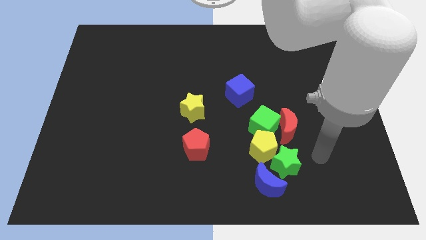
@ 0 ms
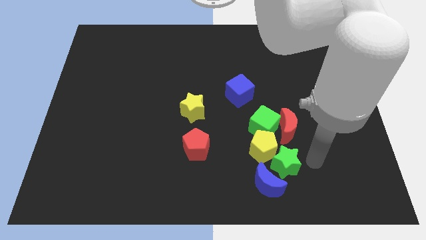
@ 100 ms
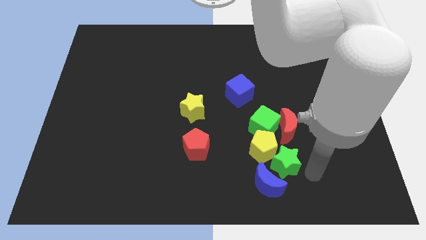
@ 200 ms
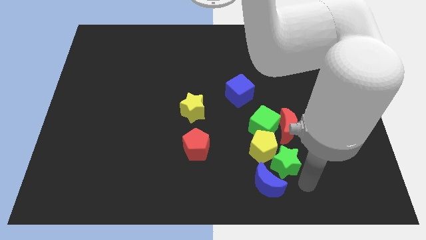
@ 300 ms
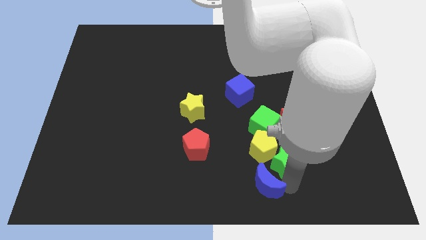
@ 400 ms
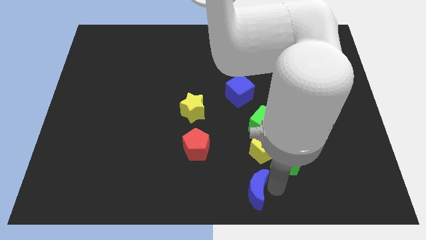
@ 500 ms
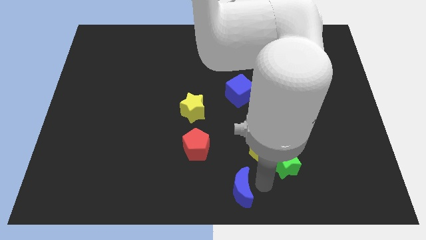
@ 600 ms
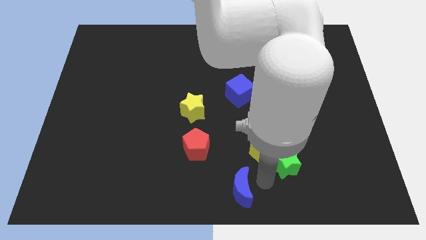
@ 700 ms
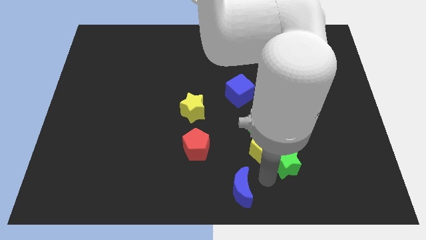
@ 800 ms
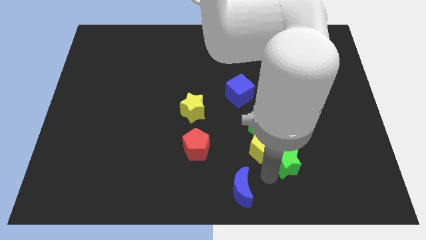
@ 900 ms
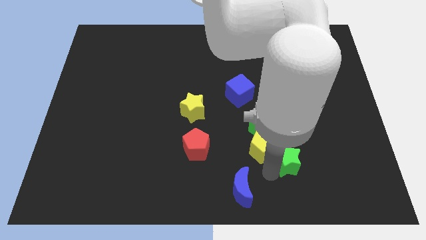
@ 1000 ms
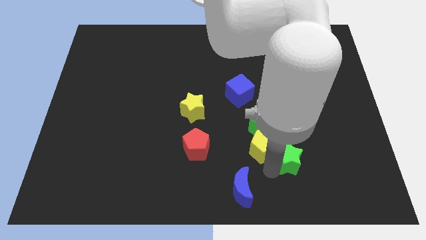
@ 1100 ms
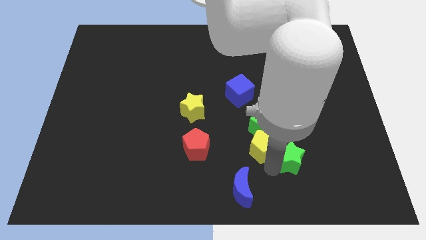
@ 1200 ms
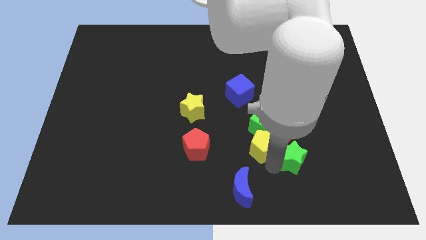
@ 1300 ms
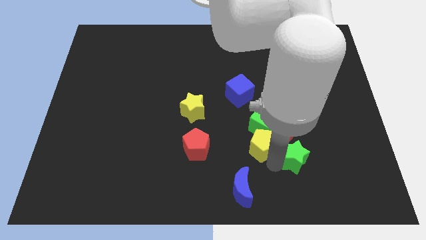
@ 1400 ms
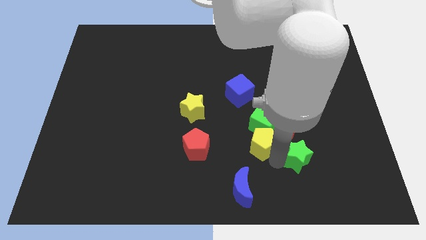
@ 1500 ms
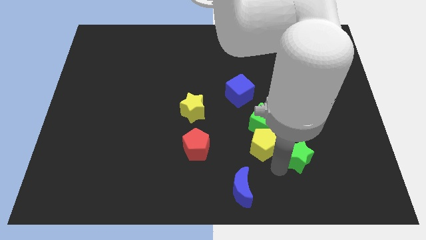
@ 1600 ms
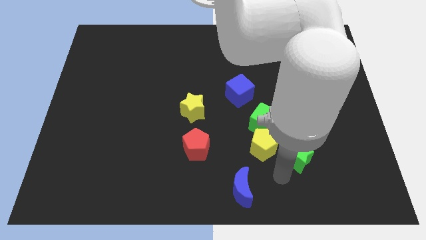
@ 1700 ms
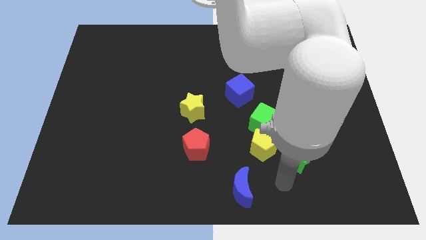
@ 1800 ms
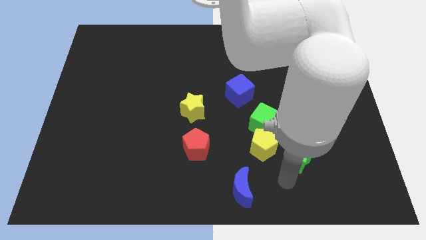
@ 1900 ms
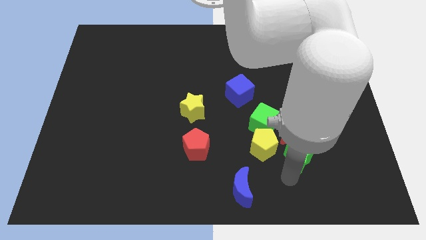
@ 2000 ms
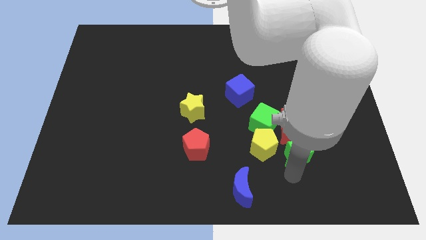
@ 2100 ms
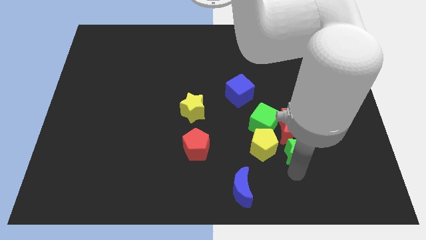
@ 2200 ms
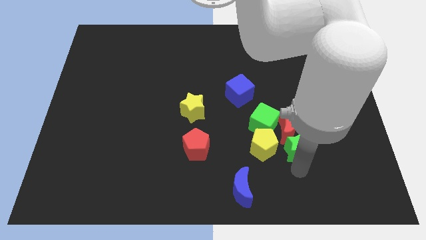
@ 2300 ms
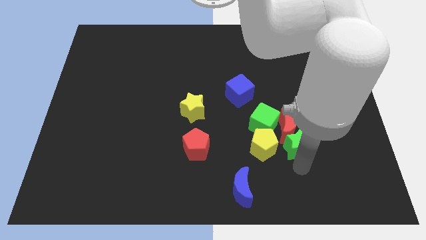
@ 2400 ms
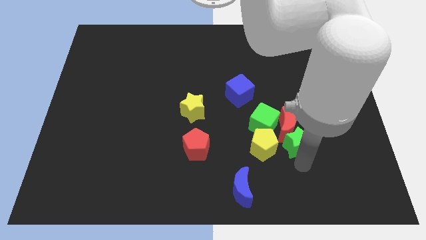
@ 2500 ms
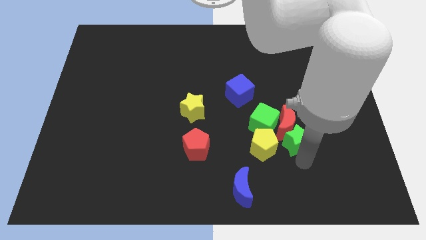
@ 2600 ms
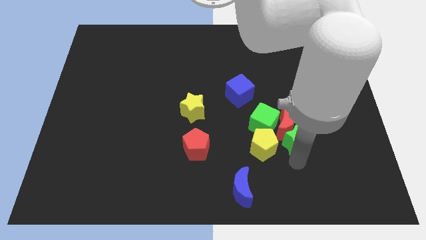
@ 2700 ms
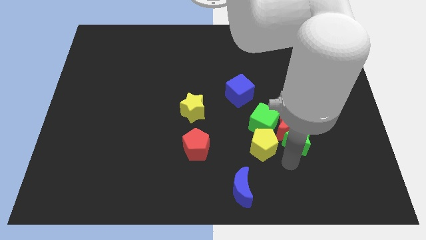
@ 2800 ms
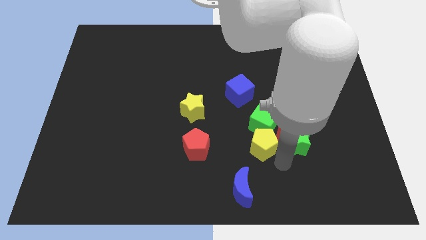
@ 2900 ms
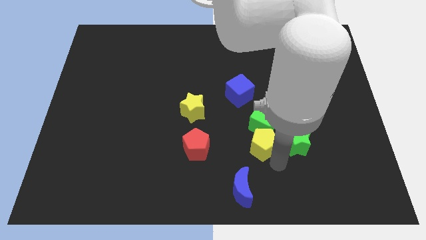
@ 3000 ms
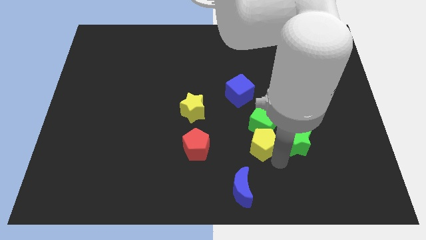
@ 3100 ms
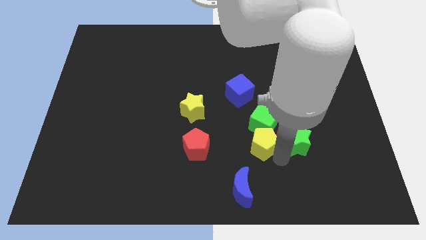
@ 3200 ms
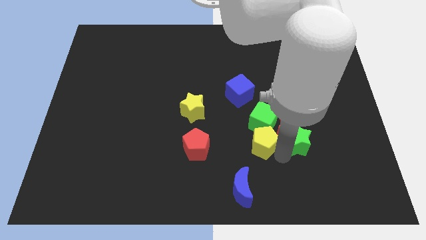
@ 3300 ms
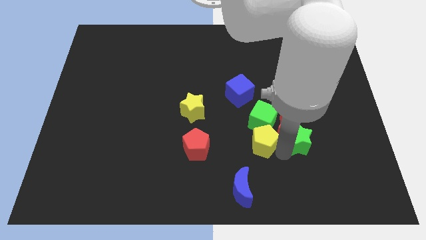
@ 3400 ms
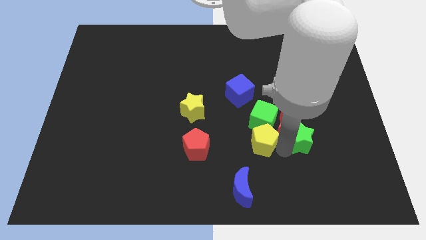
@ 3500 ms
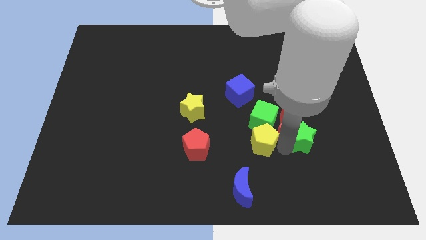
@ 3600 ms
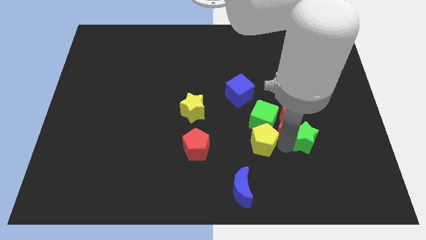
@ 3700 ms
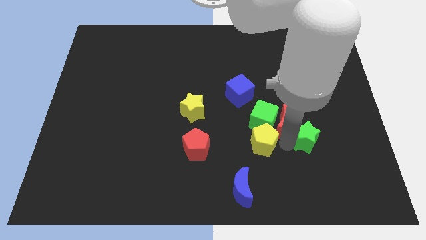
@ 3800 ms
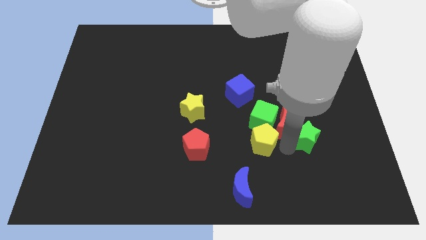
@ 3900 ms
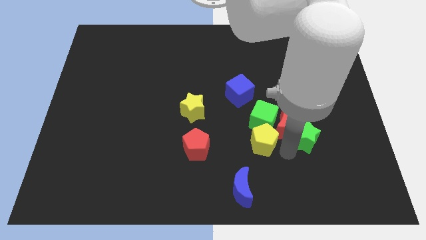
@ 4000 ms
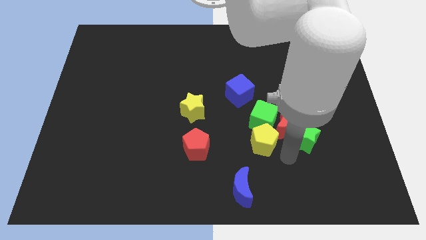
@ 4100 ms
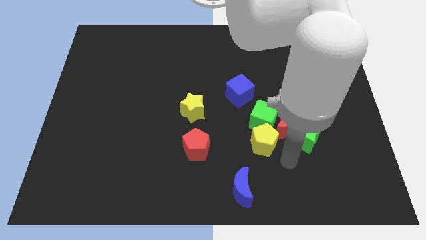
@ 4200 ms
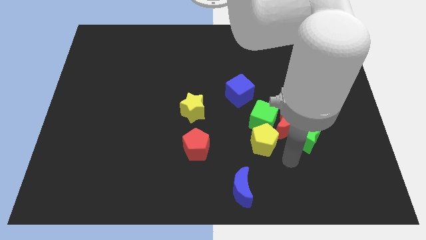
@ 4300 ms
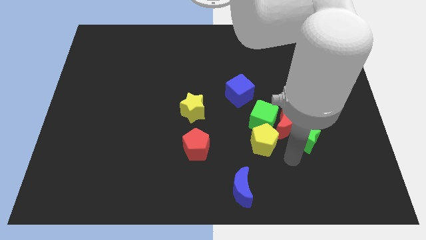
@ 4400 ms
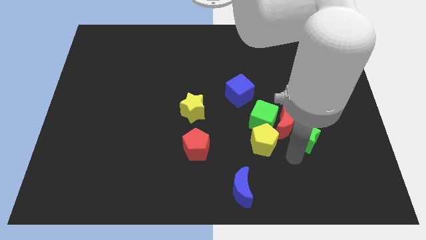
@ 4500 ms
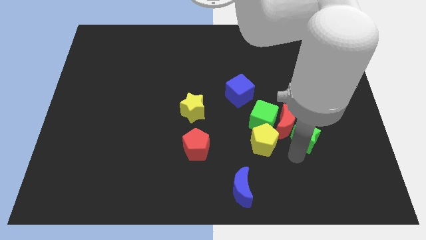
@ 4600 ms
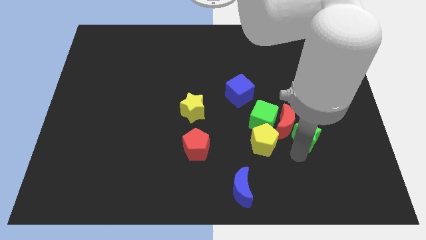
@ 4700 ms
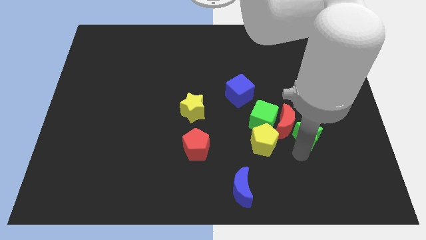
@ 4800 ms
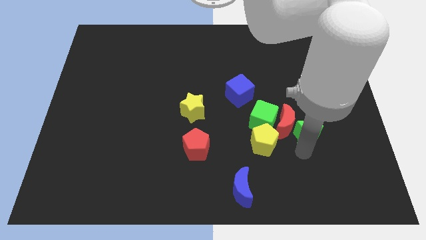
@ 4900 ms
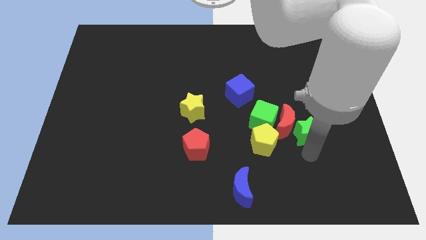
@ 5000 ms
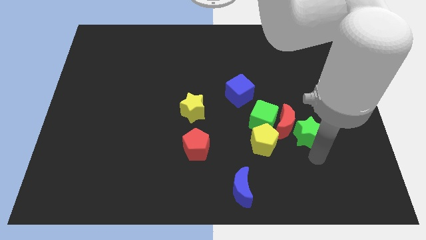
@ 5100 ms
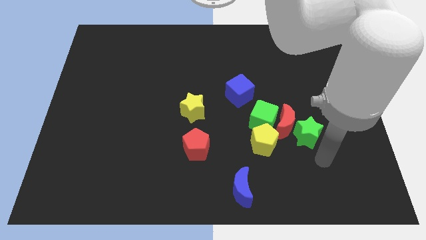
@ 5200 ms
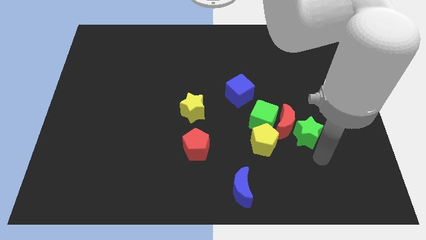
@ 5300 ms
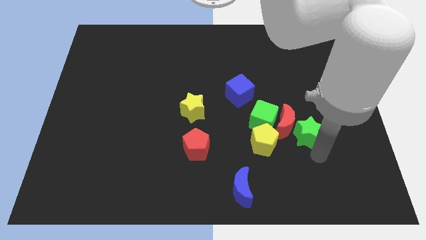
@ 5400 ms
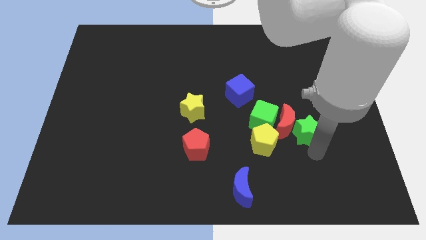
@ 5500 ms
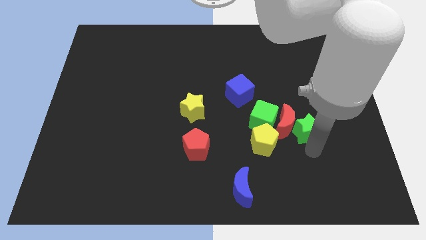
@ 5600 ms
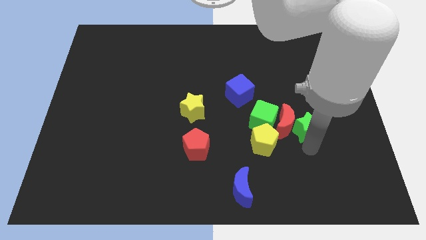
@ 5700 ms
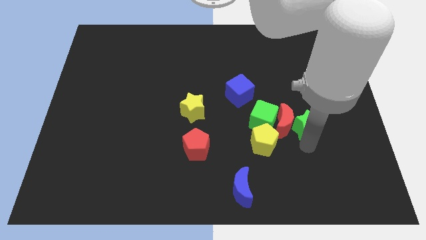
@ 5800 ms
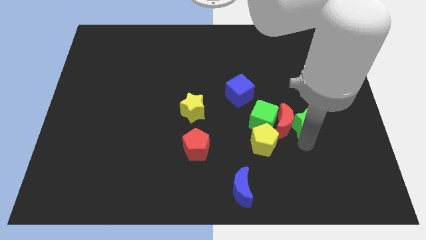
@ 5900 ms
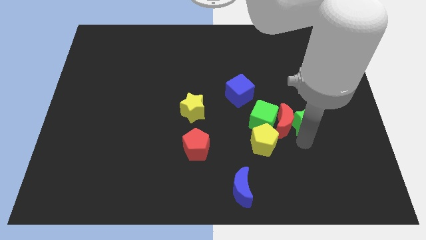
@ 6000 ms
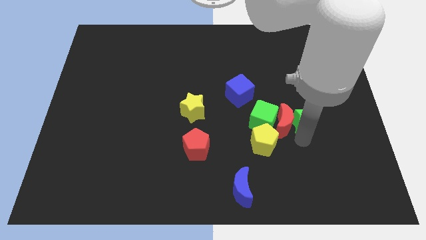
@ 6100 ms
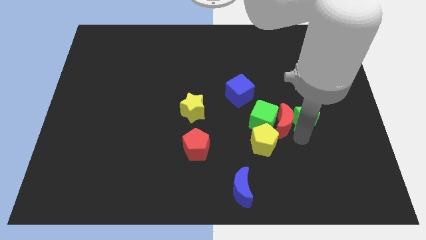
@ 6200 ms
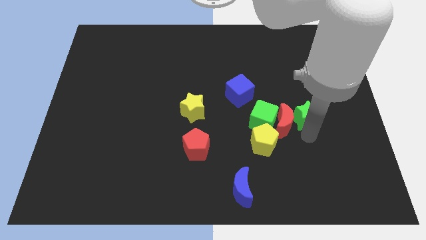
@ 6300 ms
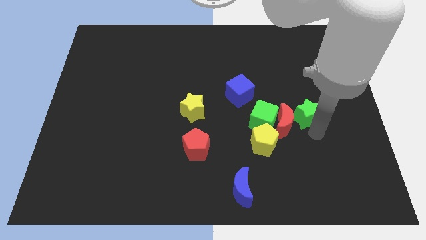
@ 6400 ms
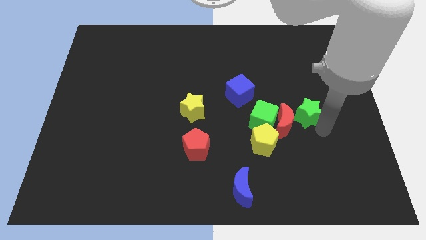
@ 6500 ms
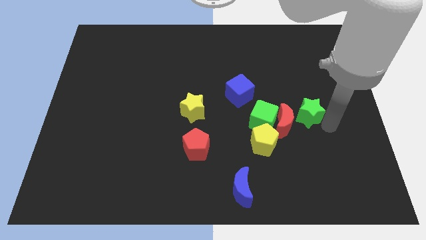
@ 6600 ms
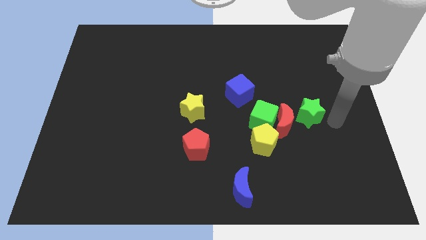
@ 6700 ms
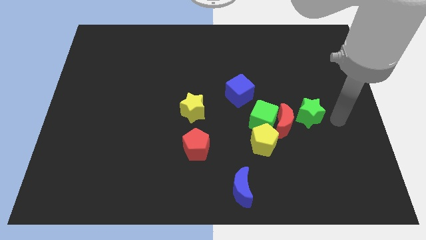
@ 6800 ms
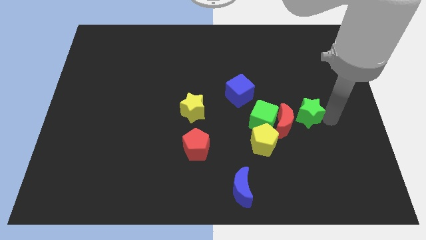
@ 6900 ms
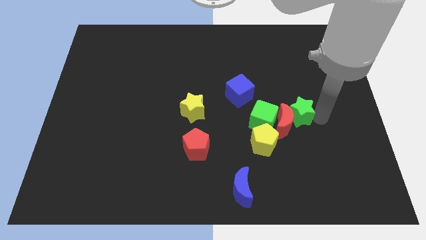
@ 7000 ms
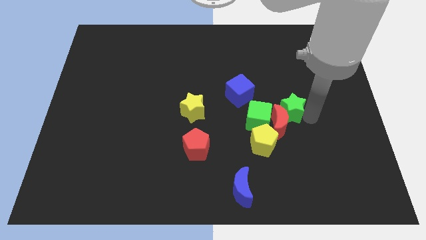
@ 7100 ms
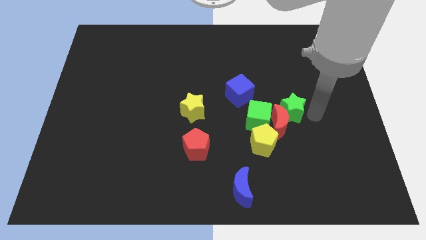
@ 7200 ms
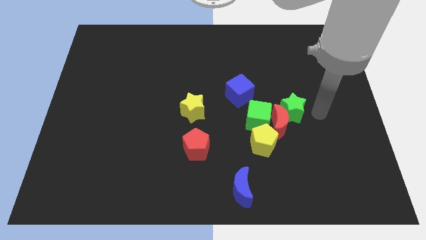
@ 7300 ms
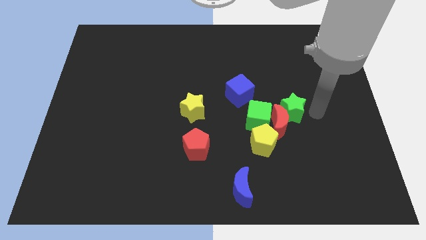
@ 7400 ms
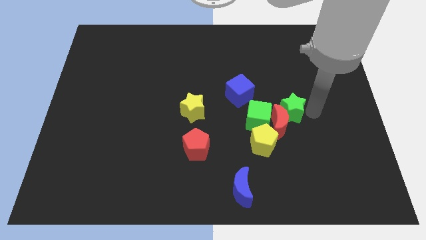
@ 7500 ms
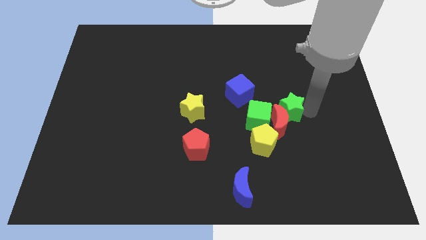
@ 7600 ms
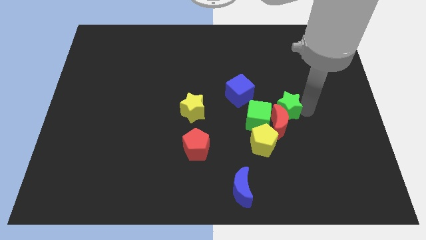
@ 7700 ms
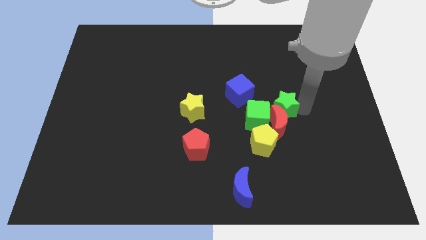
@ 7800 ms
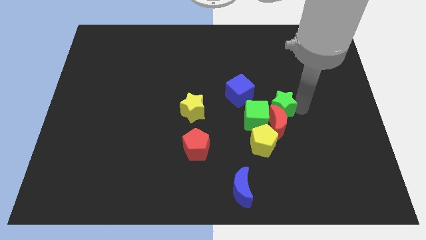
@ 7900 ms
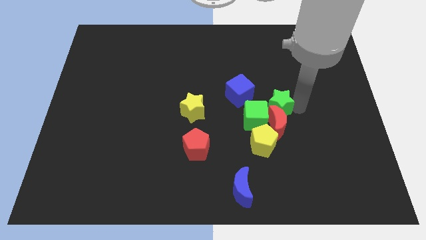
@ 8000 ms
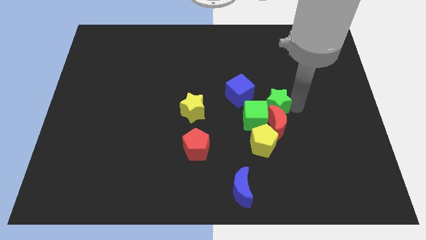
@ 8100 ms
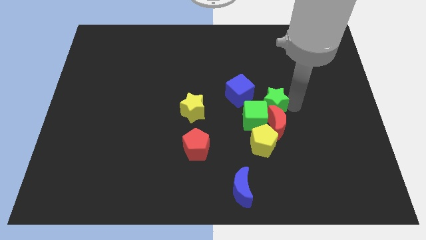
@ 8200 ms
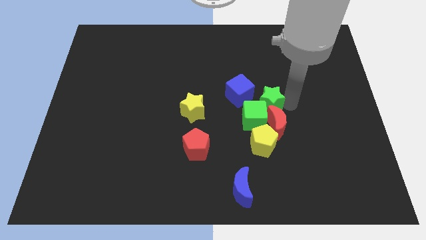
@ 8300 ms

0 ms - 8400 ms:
slide the green star a bit diagonally upwards and to the left
